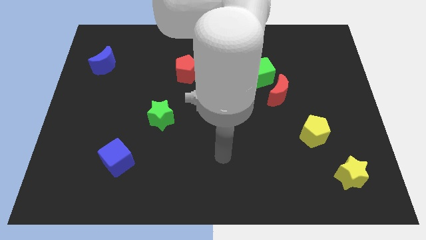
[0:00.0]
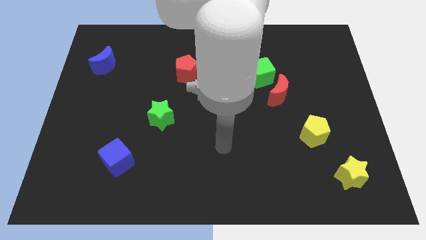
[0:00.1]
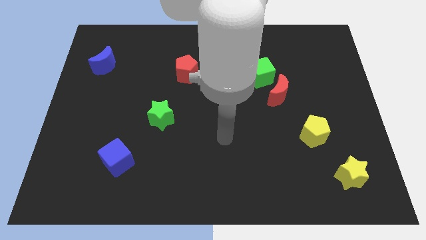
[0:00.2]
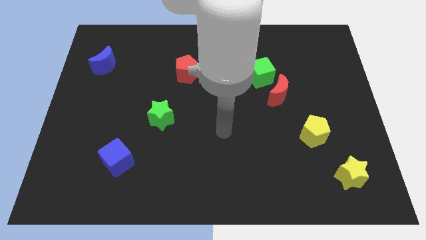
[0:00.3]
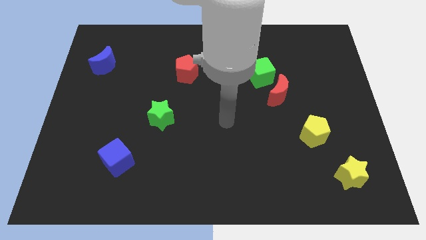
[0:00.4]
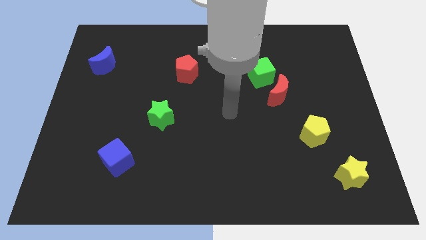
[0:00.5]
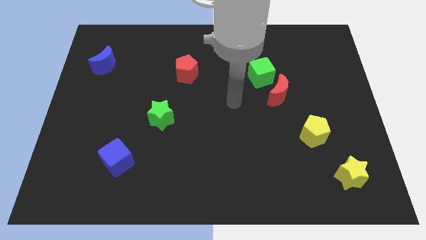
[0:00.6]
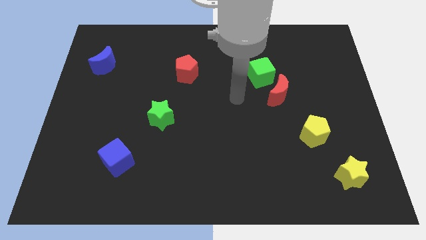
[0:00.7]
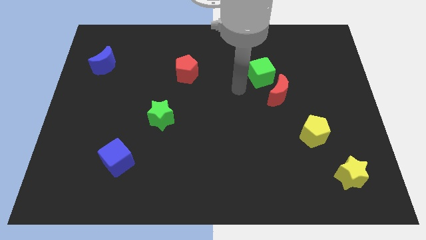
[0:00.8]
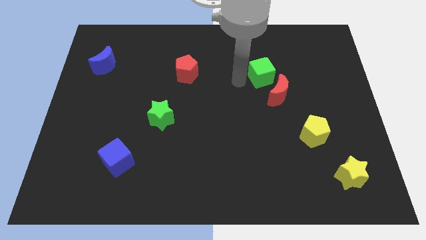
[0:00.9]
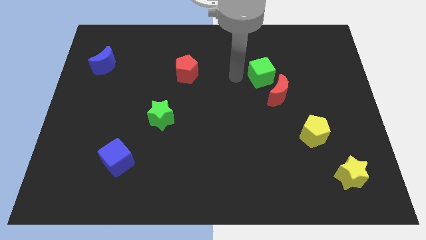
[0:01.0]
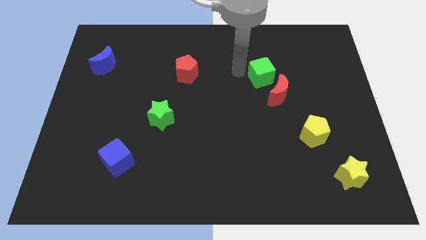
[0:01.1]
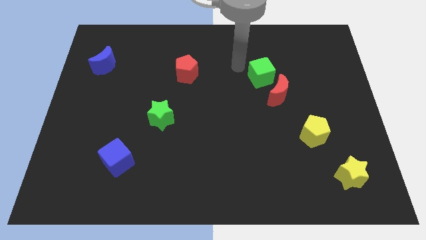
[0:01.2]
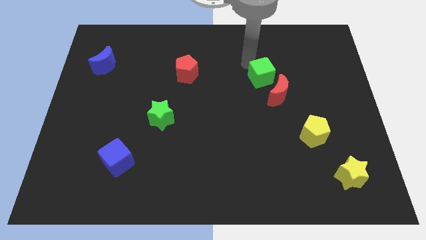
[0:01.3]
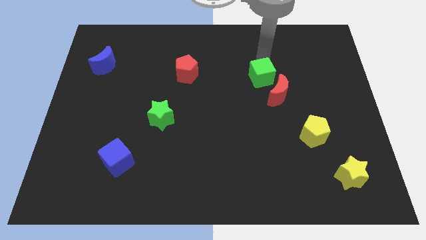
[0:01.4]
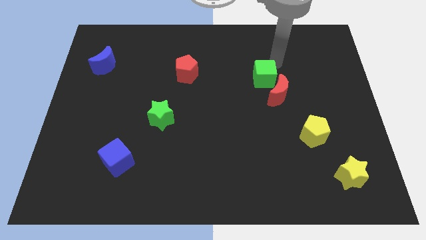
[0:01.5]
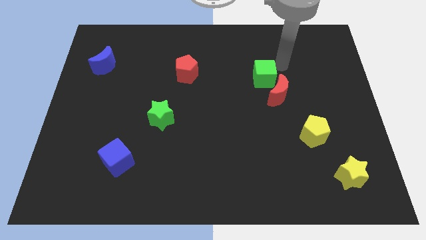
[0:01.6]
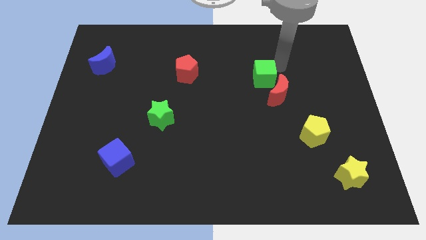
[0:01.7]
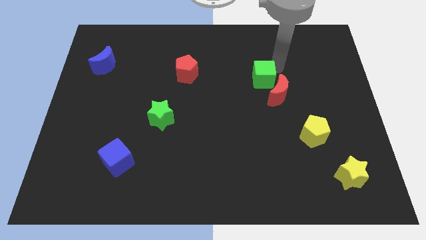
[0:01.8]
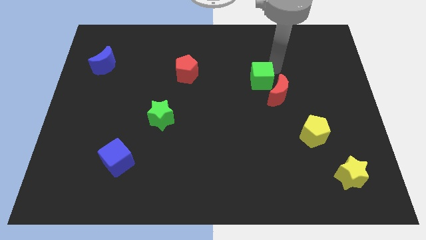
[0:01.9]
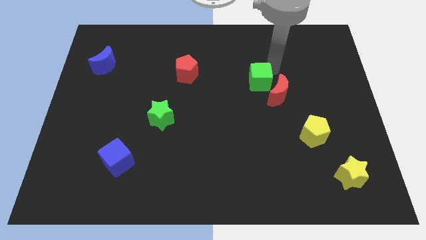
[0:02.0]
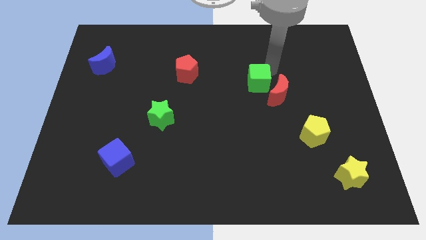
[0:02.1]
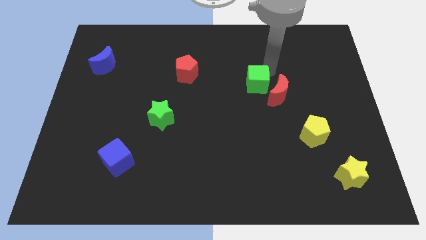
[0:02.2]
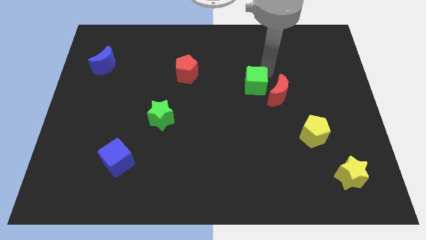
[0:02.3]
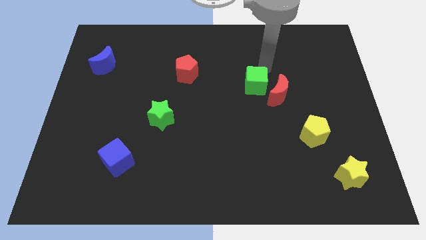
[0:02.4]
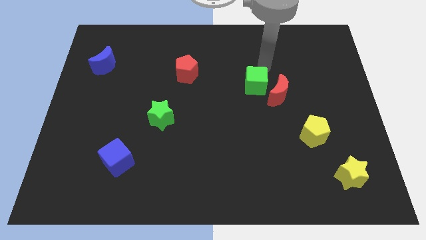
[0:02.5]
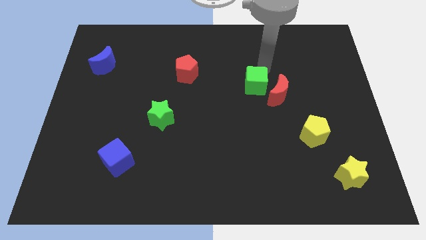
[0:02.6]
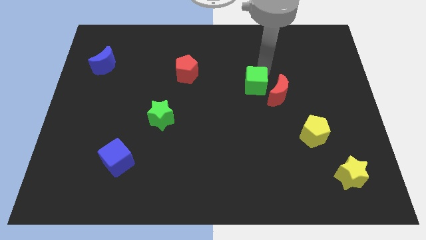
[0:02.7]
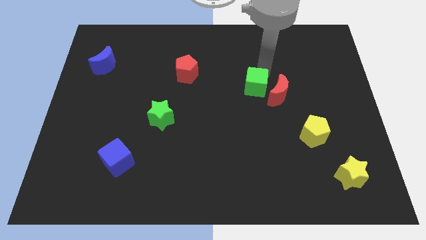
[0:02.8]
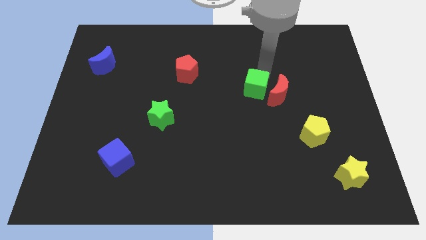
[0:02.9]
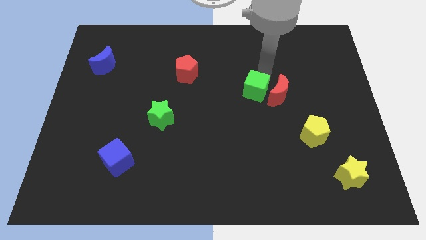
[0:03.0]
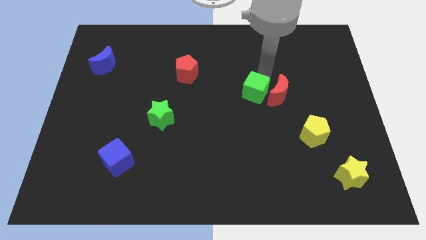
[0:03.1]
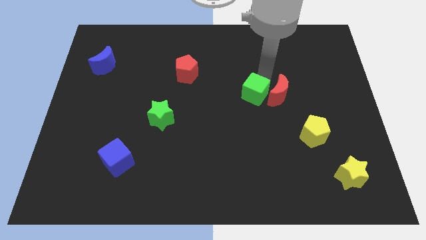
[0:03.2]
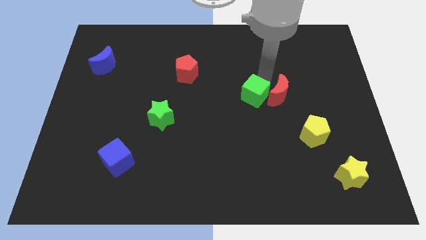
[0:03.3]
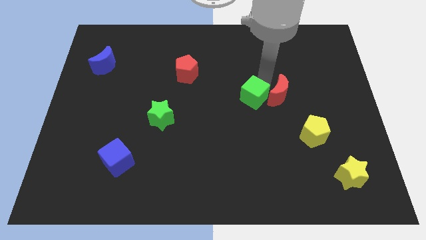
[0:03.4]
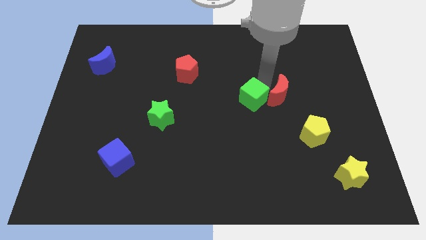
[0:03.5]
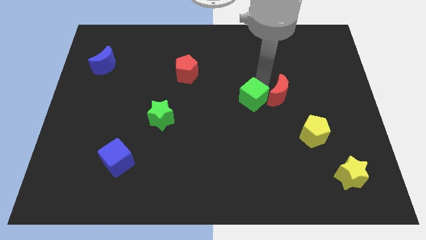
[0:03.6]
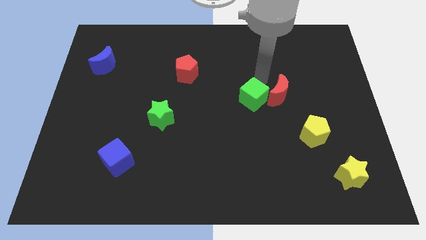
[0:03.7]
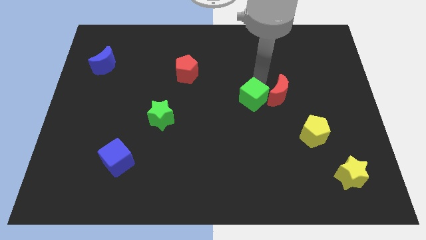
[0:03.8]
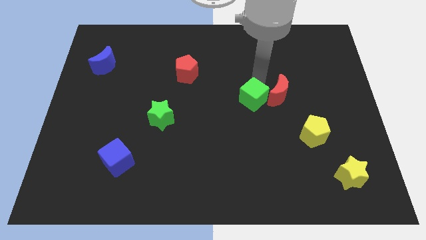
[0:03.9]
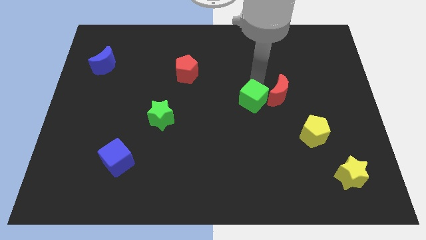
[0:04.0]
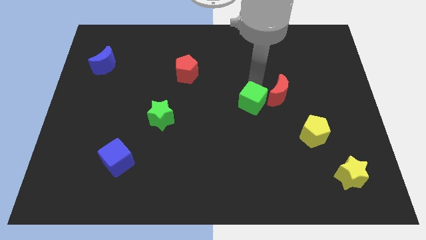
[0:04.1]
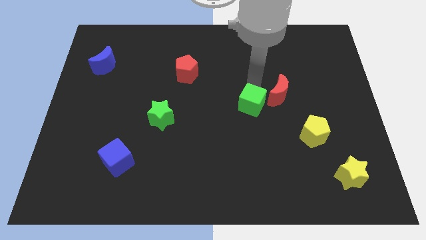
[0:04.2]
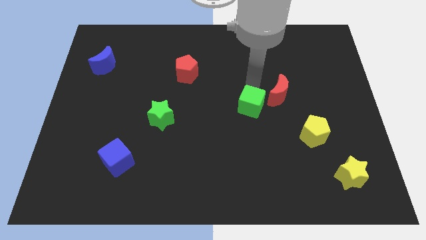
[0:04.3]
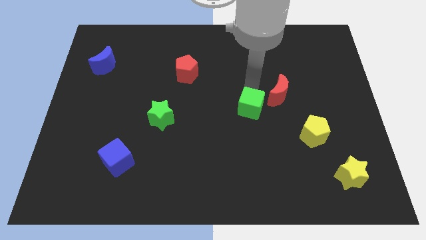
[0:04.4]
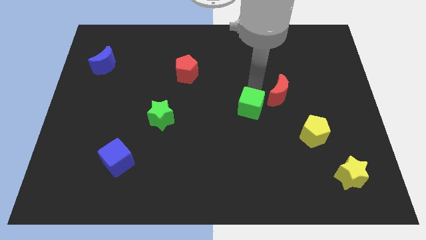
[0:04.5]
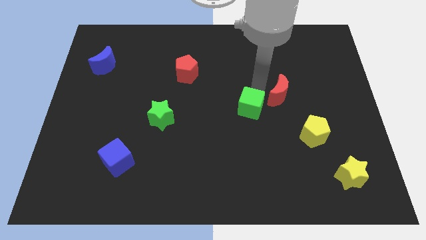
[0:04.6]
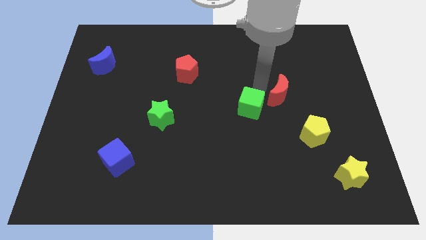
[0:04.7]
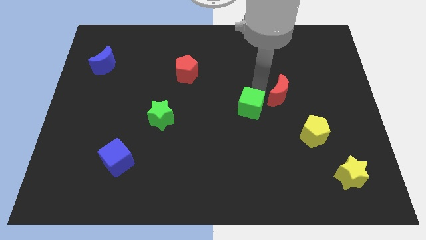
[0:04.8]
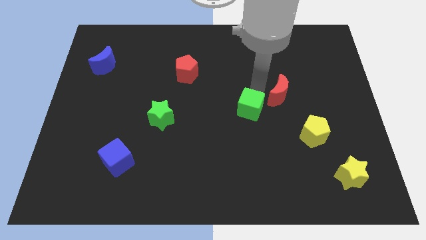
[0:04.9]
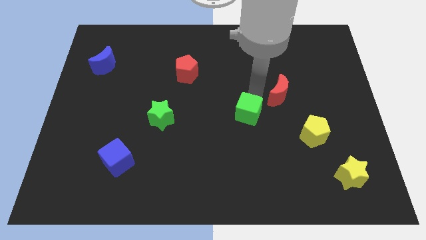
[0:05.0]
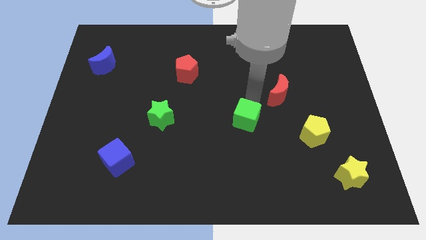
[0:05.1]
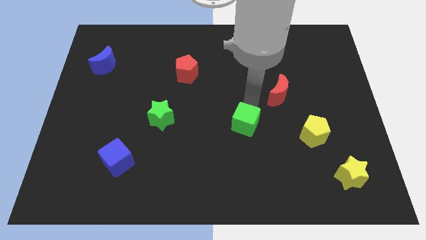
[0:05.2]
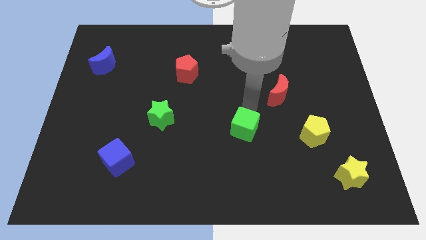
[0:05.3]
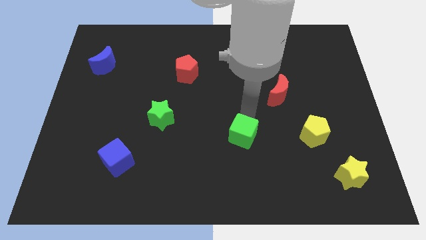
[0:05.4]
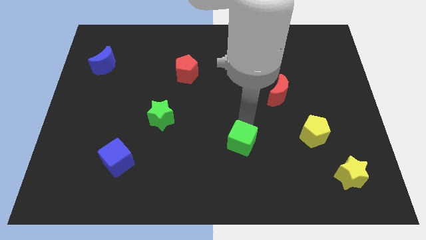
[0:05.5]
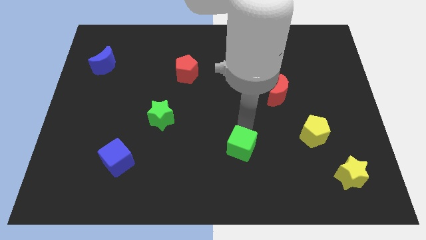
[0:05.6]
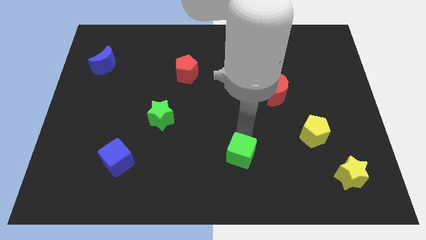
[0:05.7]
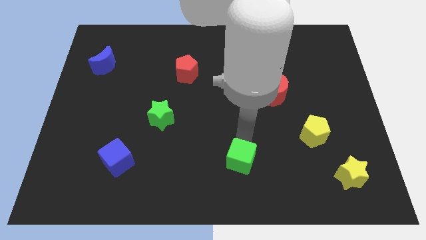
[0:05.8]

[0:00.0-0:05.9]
slide the green cube to the bottom side
